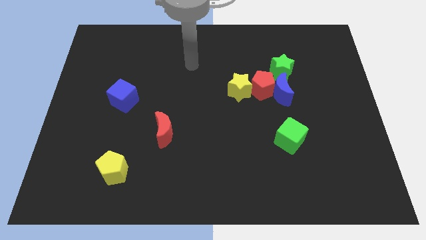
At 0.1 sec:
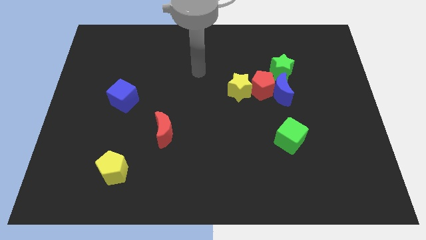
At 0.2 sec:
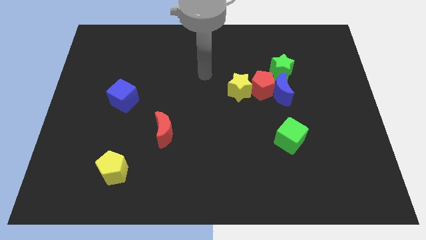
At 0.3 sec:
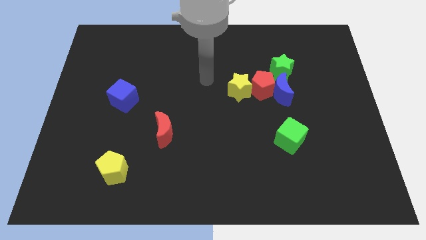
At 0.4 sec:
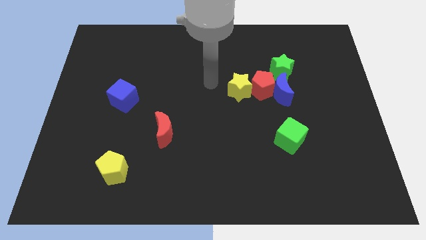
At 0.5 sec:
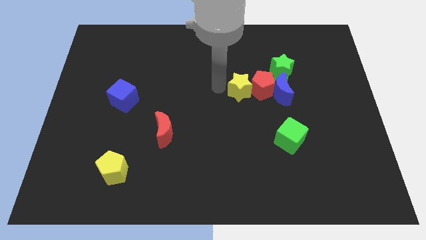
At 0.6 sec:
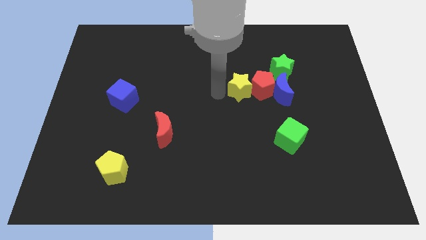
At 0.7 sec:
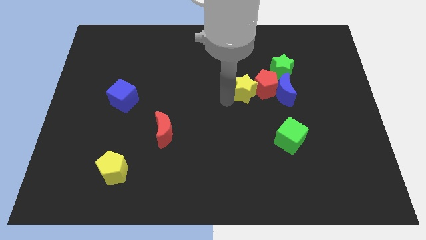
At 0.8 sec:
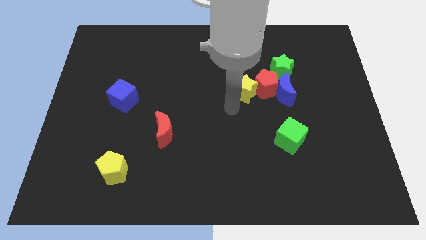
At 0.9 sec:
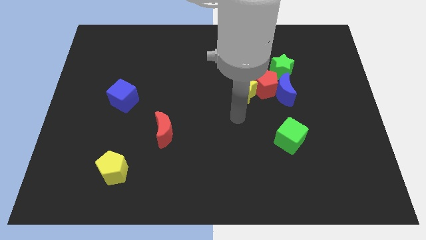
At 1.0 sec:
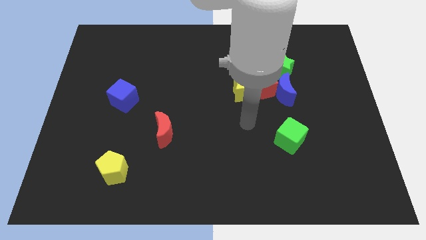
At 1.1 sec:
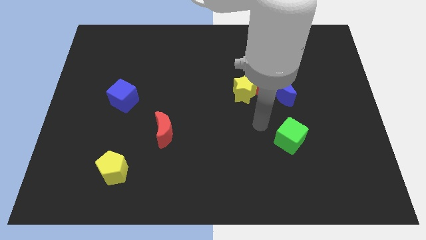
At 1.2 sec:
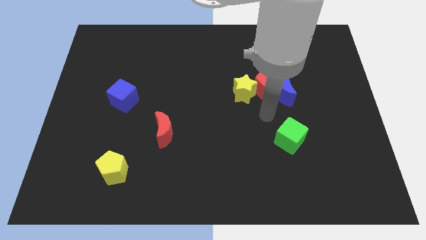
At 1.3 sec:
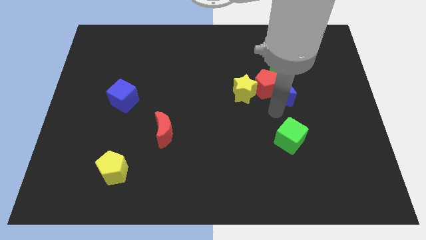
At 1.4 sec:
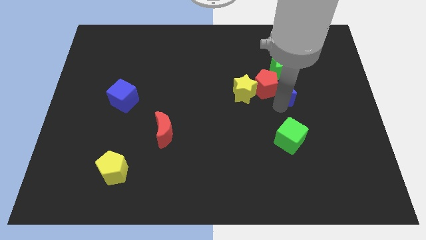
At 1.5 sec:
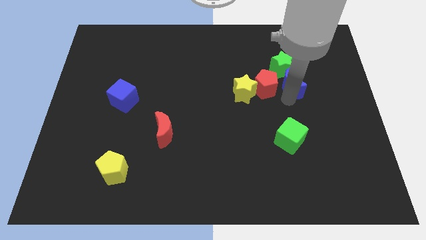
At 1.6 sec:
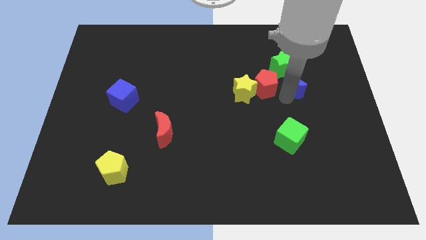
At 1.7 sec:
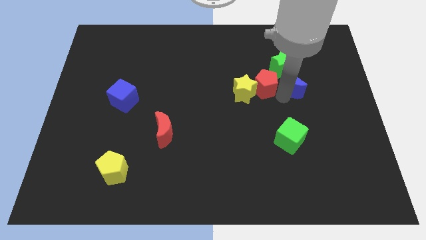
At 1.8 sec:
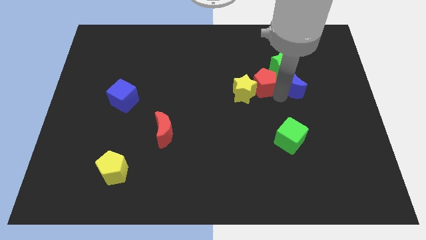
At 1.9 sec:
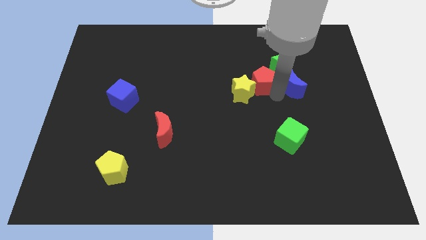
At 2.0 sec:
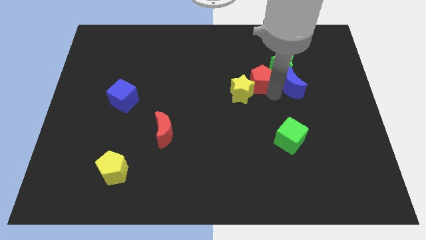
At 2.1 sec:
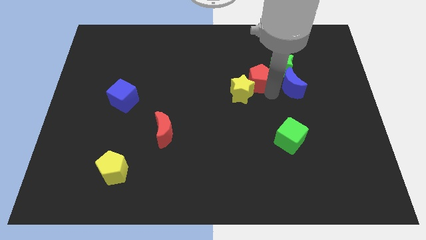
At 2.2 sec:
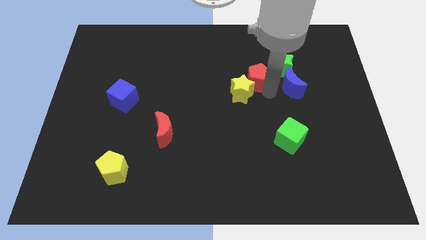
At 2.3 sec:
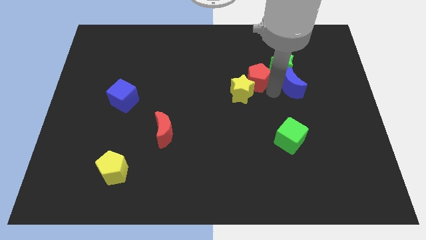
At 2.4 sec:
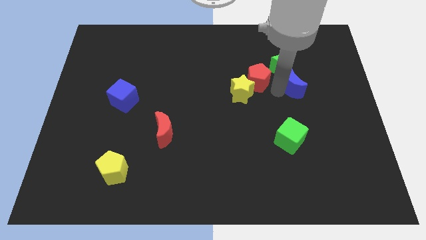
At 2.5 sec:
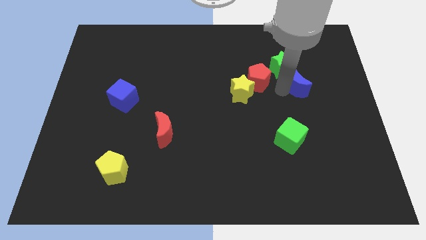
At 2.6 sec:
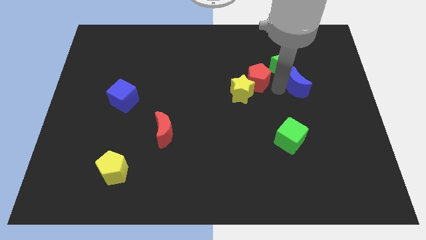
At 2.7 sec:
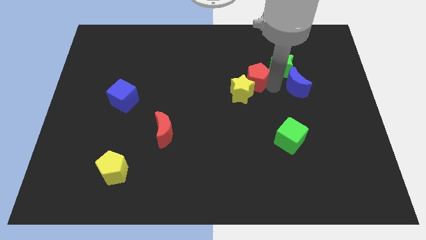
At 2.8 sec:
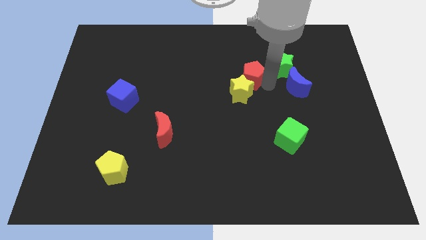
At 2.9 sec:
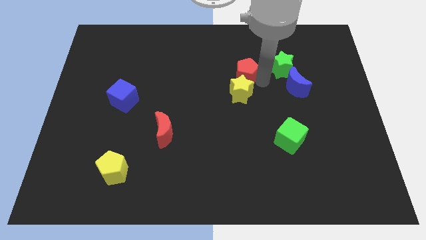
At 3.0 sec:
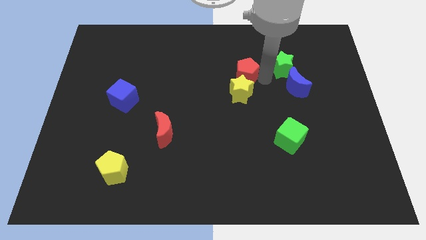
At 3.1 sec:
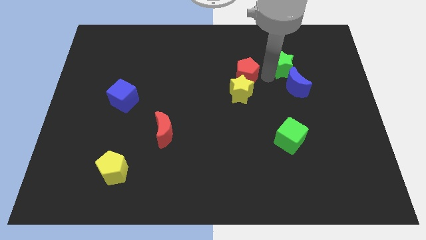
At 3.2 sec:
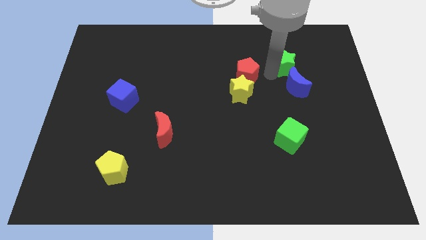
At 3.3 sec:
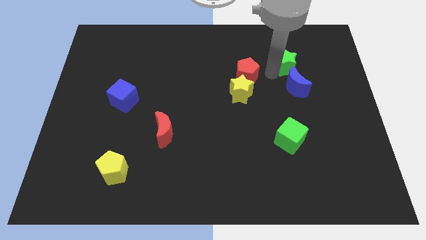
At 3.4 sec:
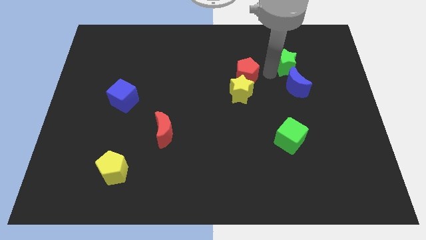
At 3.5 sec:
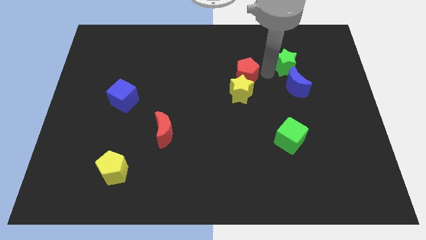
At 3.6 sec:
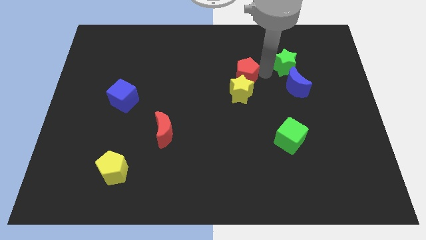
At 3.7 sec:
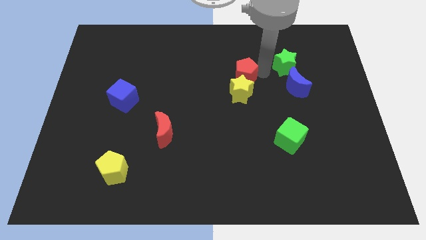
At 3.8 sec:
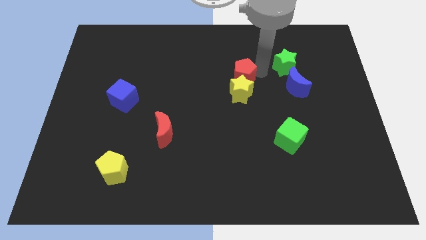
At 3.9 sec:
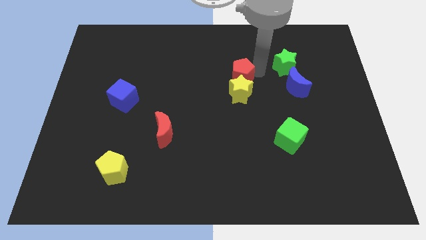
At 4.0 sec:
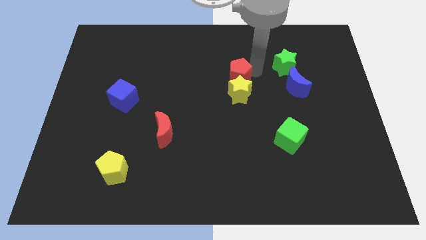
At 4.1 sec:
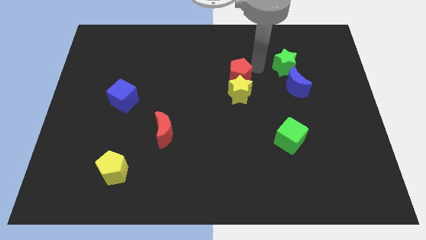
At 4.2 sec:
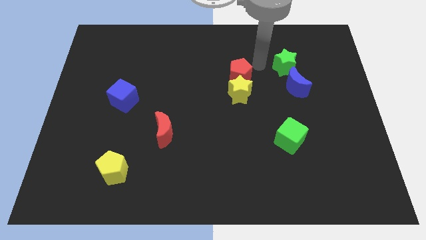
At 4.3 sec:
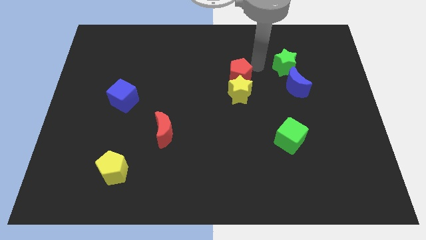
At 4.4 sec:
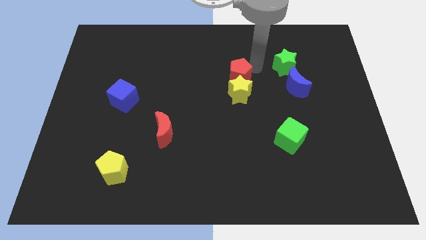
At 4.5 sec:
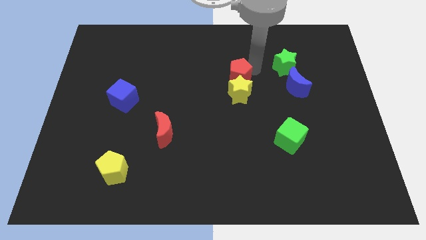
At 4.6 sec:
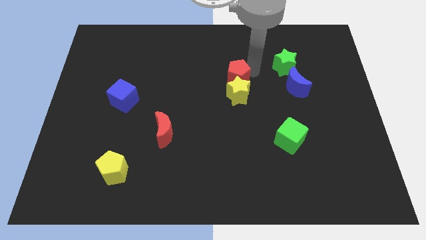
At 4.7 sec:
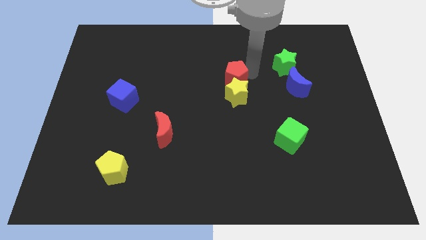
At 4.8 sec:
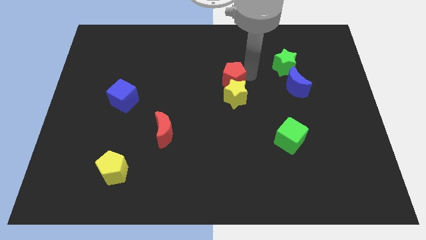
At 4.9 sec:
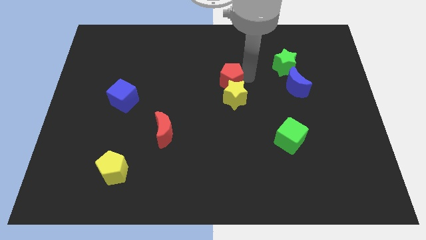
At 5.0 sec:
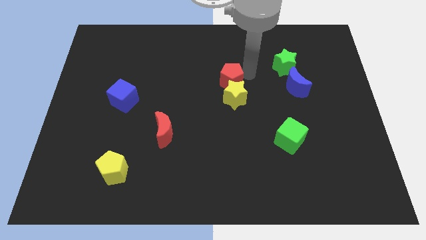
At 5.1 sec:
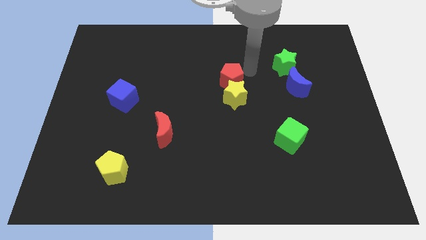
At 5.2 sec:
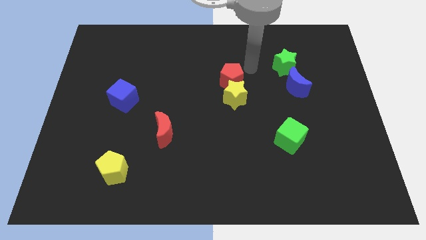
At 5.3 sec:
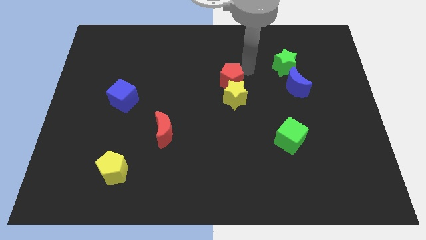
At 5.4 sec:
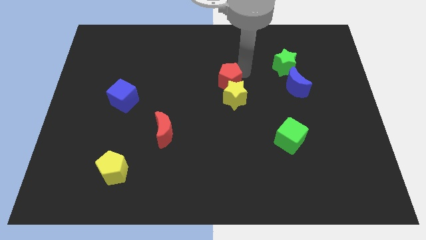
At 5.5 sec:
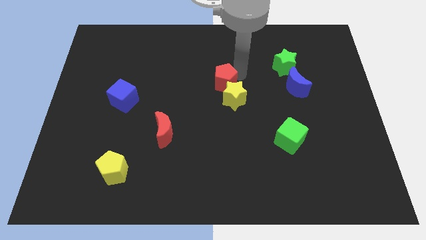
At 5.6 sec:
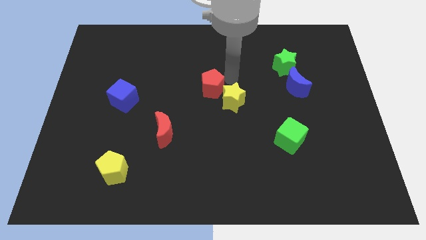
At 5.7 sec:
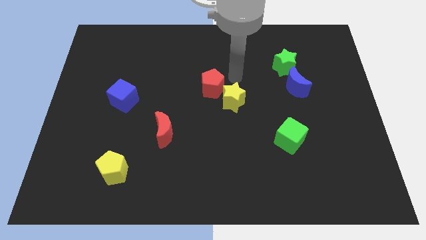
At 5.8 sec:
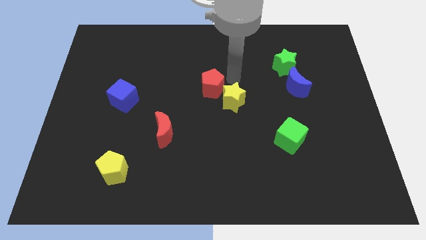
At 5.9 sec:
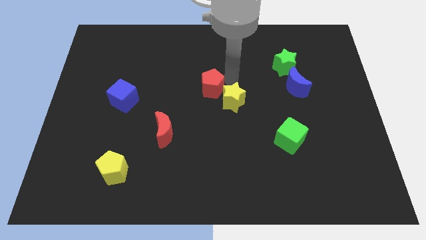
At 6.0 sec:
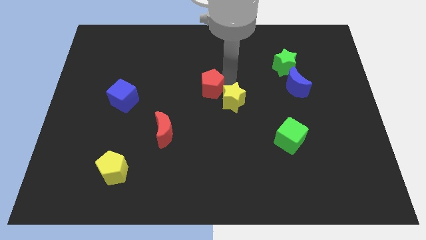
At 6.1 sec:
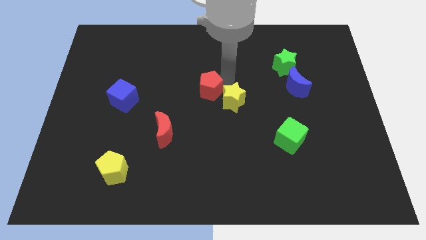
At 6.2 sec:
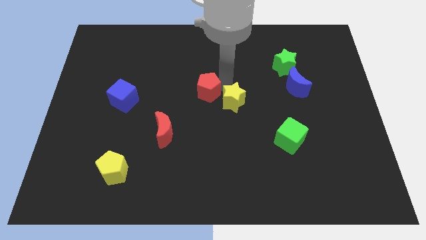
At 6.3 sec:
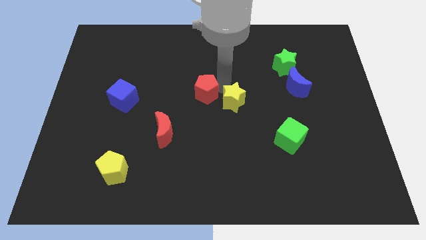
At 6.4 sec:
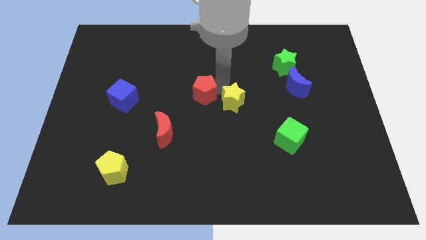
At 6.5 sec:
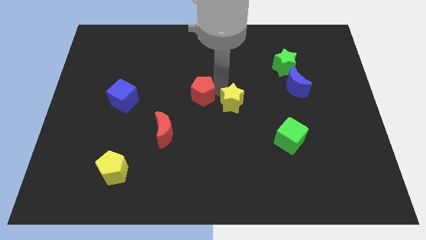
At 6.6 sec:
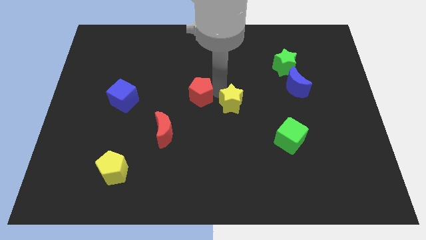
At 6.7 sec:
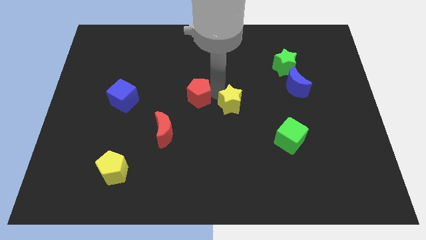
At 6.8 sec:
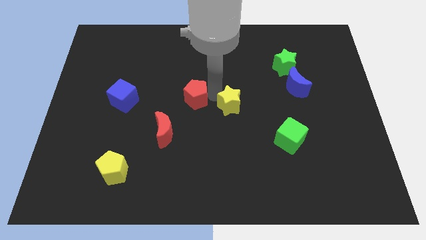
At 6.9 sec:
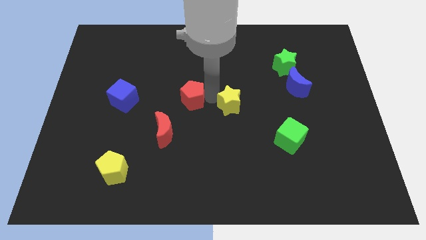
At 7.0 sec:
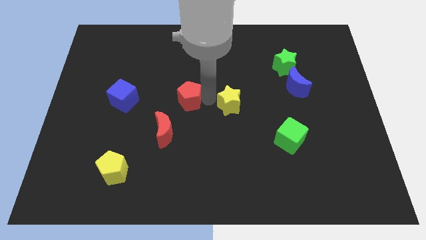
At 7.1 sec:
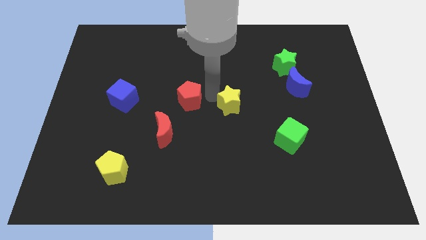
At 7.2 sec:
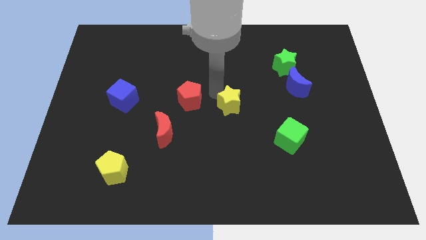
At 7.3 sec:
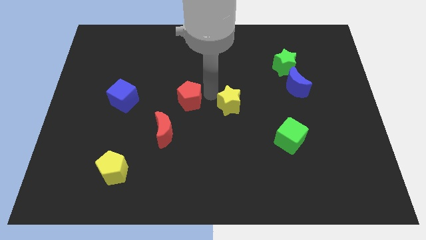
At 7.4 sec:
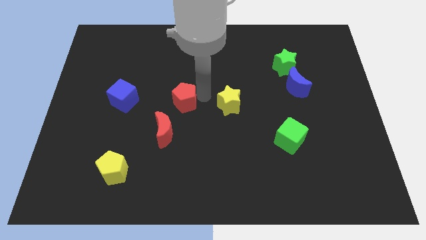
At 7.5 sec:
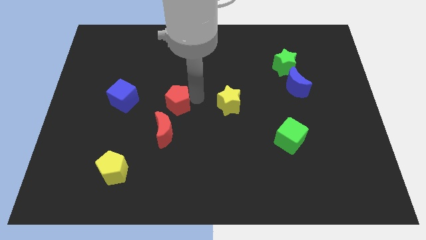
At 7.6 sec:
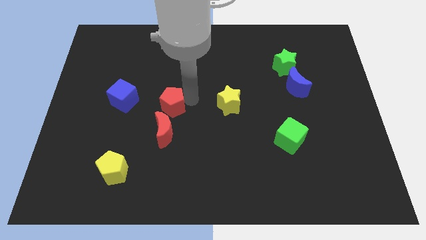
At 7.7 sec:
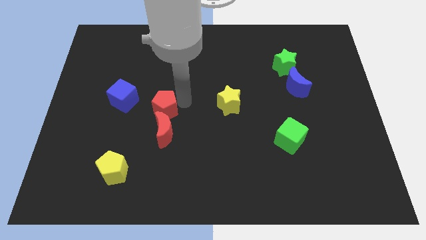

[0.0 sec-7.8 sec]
put the red pentagon diagonally up and to the left of the red moon
